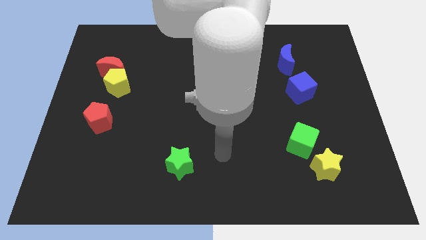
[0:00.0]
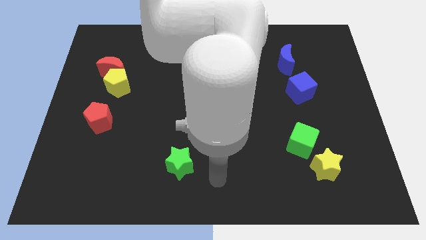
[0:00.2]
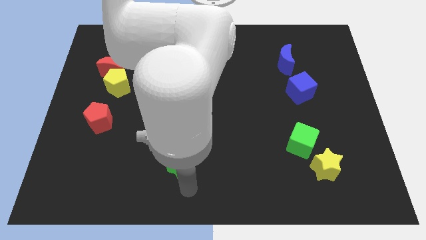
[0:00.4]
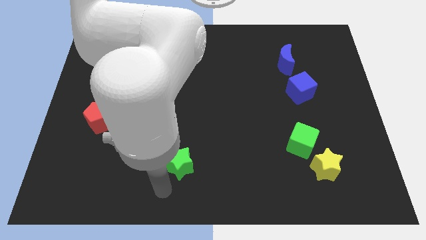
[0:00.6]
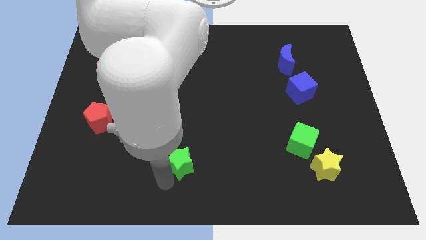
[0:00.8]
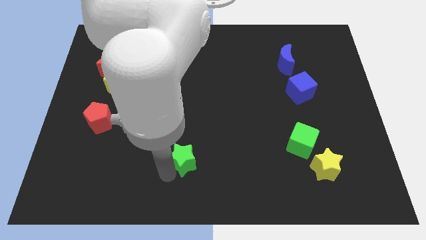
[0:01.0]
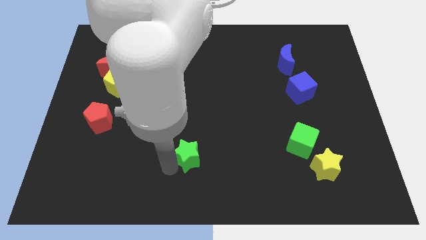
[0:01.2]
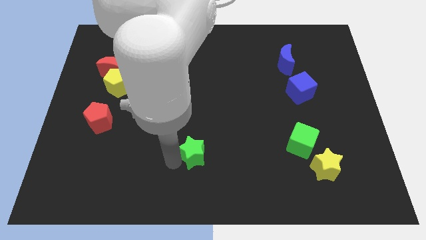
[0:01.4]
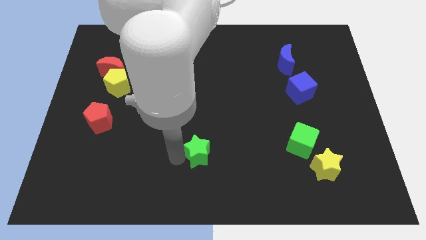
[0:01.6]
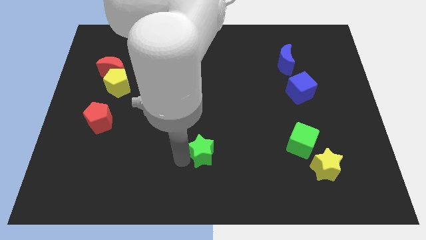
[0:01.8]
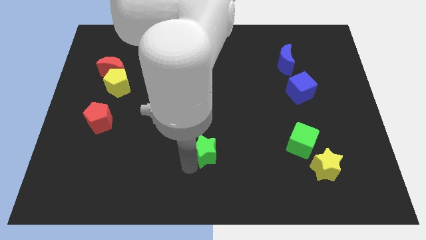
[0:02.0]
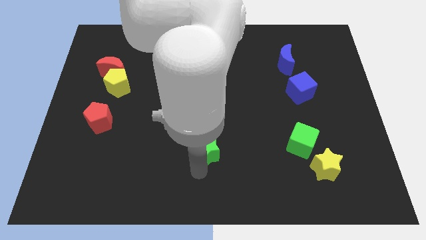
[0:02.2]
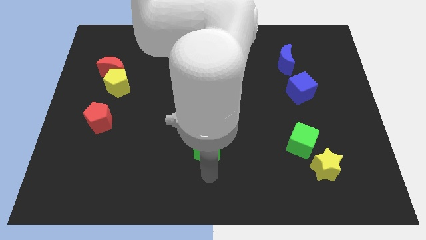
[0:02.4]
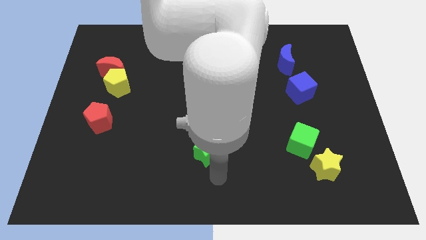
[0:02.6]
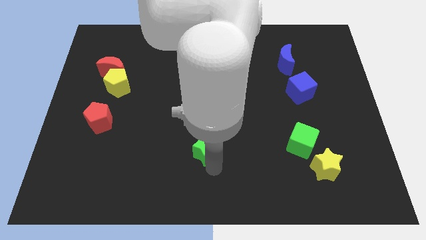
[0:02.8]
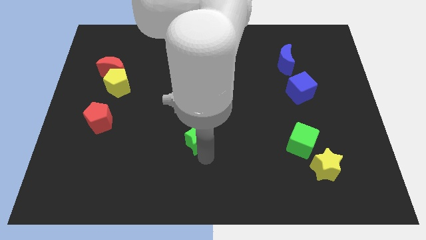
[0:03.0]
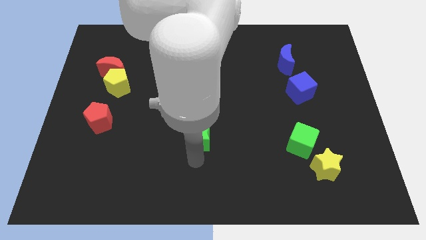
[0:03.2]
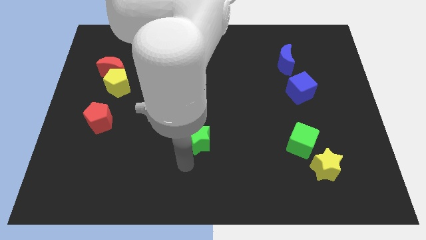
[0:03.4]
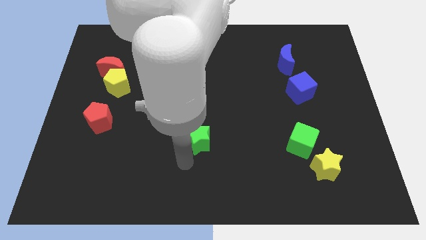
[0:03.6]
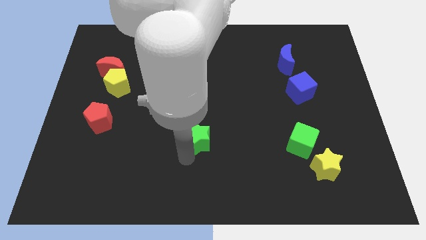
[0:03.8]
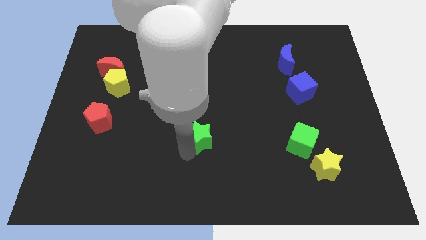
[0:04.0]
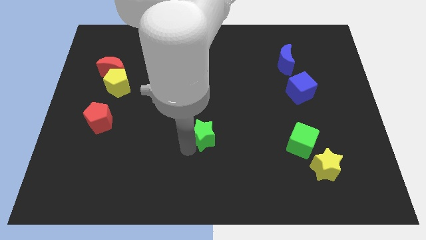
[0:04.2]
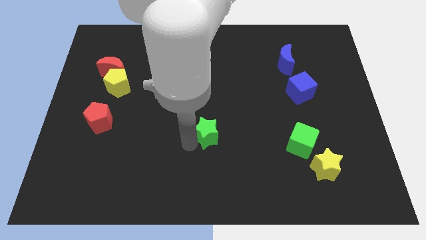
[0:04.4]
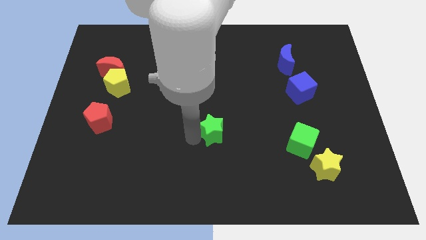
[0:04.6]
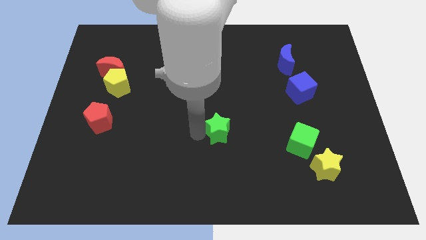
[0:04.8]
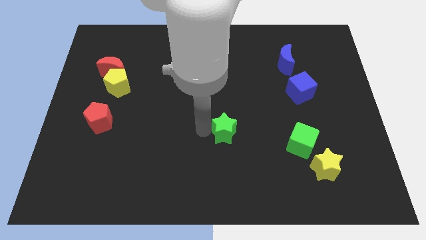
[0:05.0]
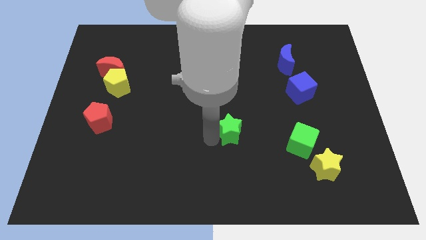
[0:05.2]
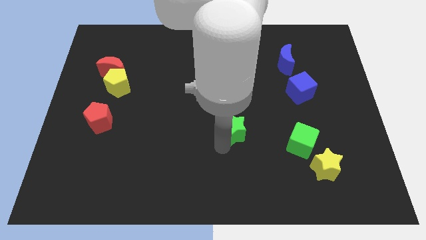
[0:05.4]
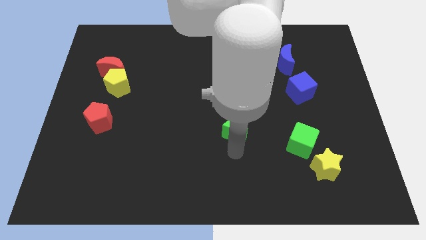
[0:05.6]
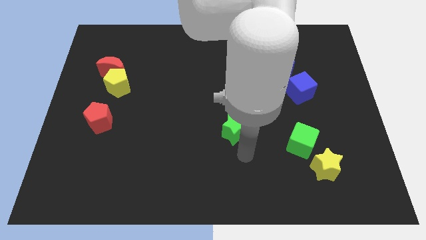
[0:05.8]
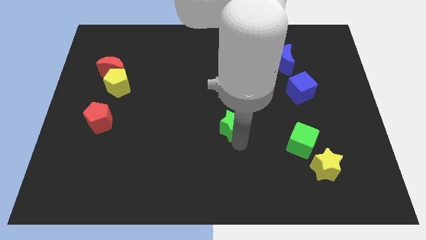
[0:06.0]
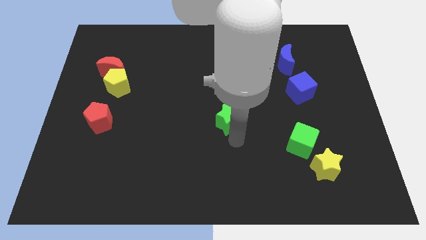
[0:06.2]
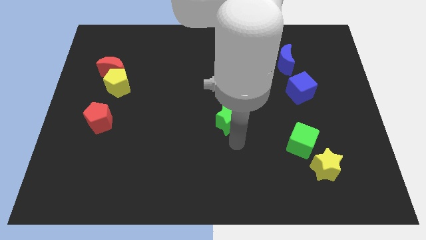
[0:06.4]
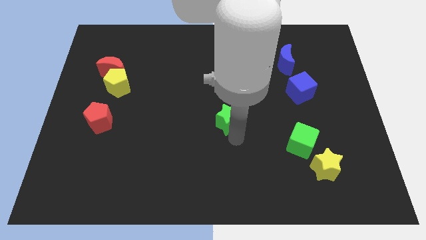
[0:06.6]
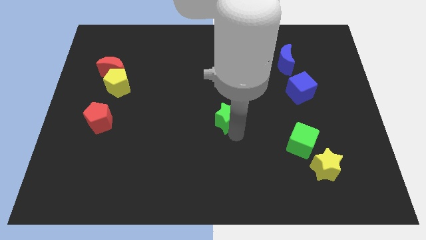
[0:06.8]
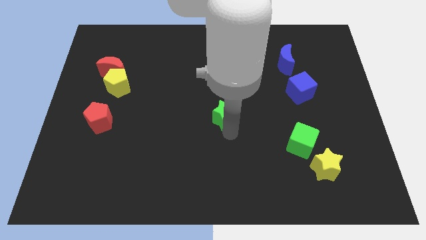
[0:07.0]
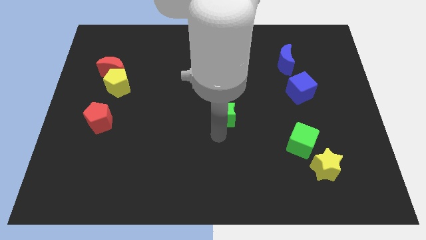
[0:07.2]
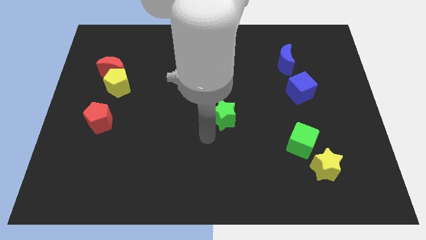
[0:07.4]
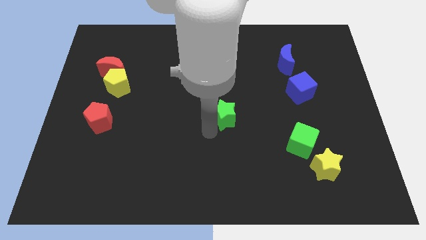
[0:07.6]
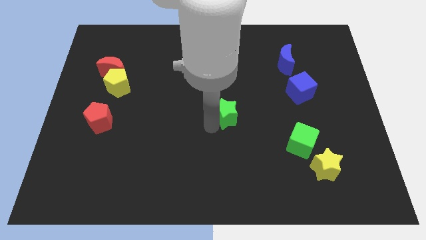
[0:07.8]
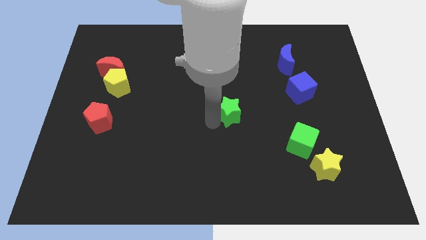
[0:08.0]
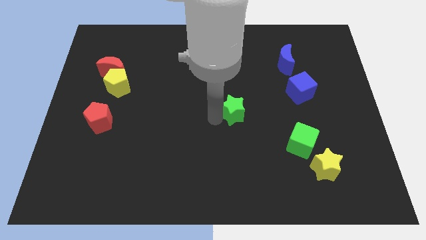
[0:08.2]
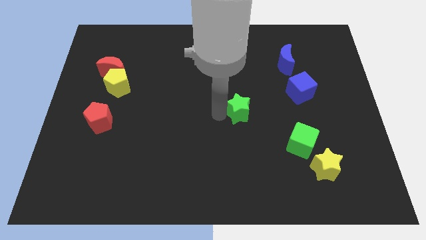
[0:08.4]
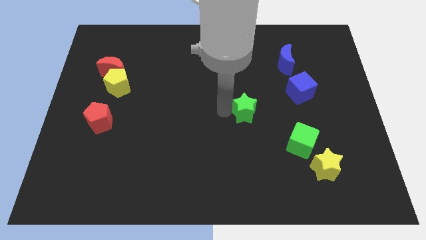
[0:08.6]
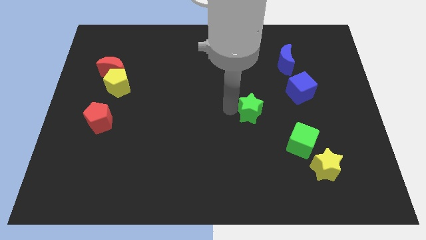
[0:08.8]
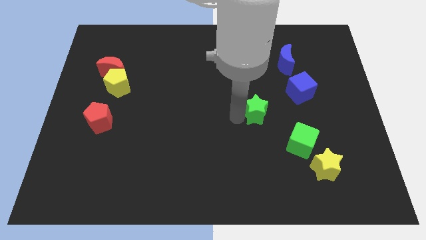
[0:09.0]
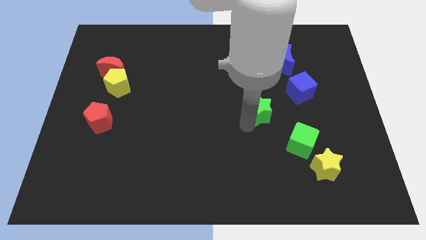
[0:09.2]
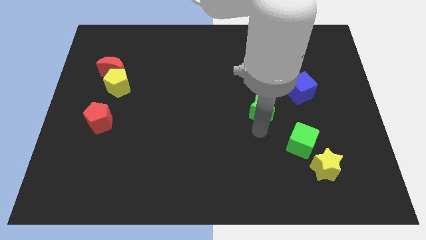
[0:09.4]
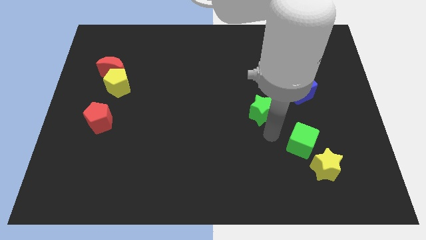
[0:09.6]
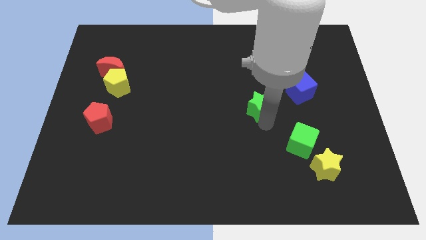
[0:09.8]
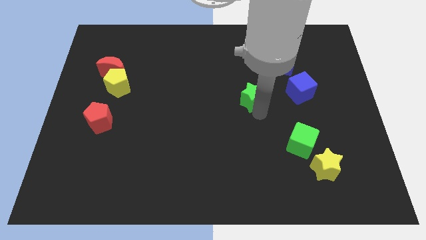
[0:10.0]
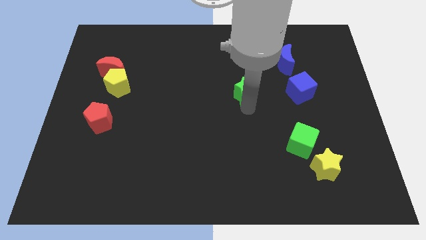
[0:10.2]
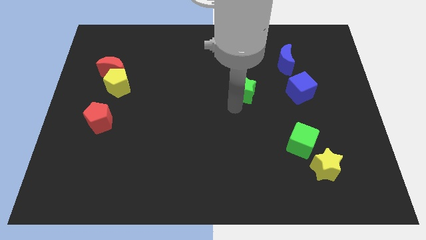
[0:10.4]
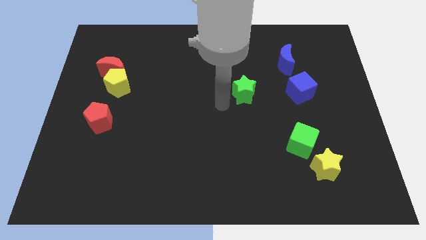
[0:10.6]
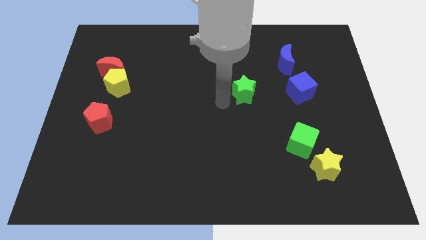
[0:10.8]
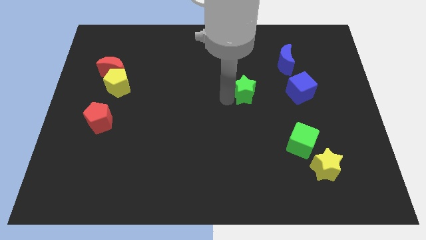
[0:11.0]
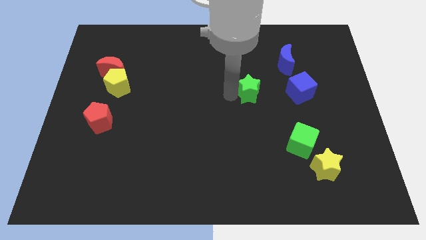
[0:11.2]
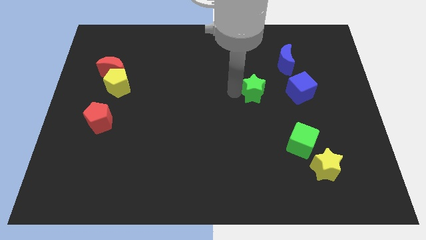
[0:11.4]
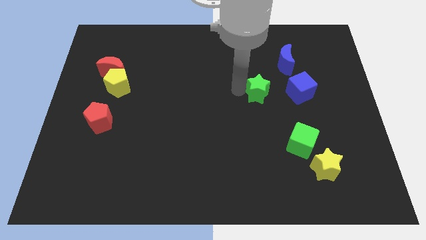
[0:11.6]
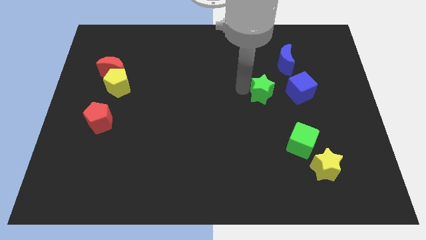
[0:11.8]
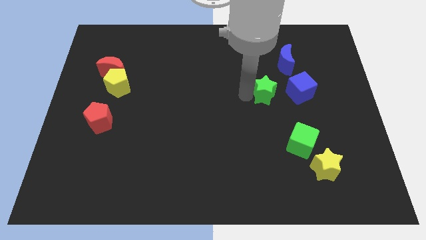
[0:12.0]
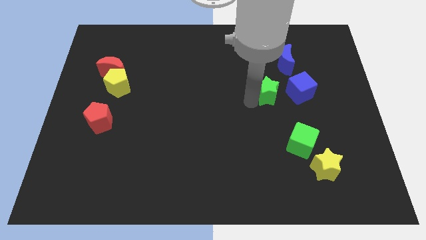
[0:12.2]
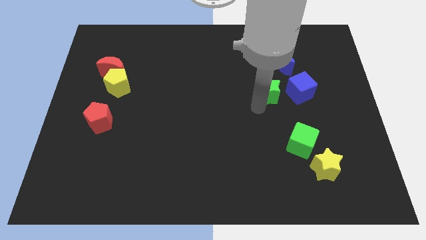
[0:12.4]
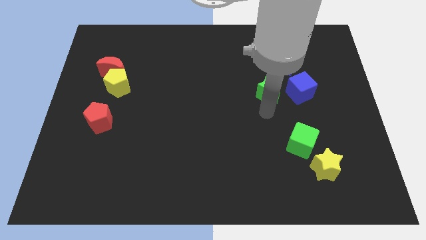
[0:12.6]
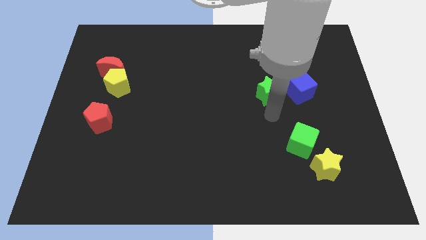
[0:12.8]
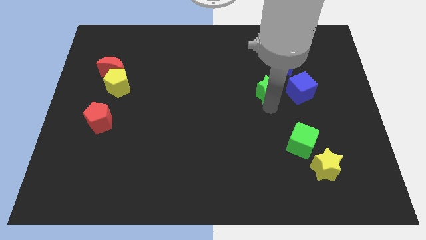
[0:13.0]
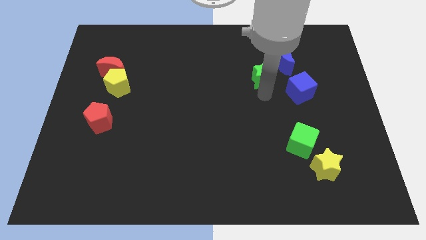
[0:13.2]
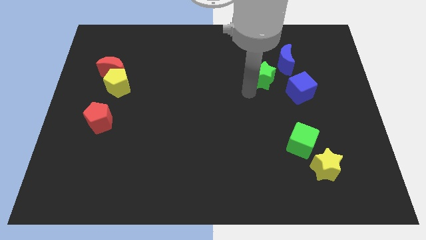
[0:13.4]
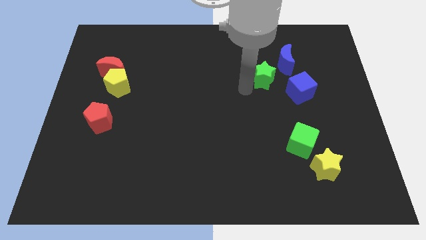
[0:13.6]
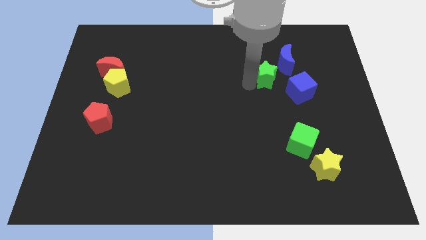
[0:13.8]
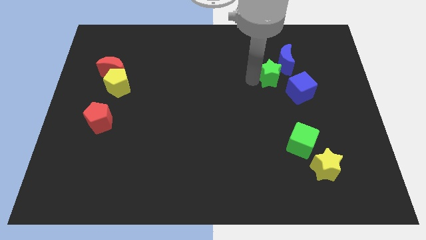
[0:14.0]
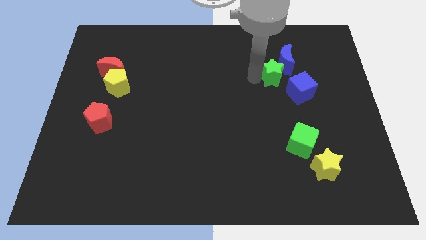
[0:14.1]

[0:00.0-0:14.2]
move the green star close to the blue moon

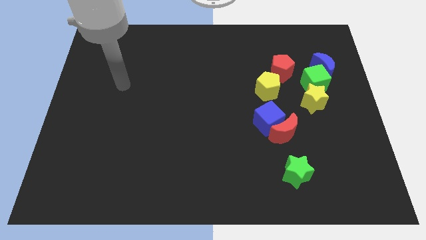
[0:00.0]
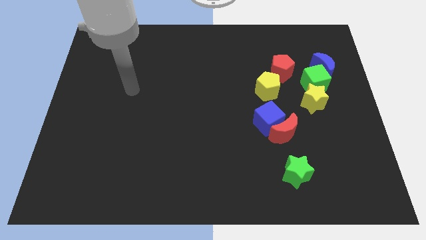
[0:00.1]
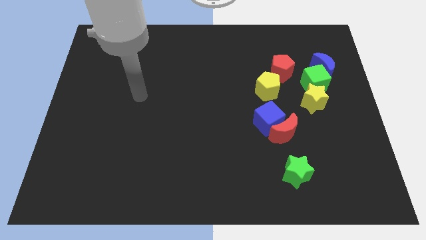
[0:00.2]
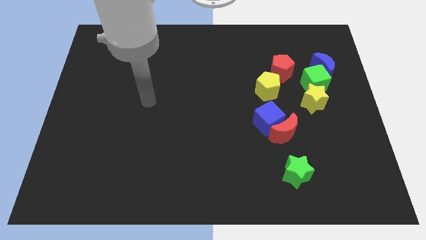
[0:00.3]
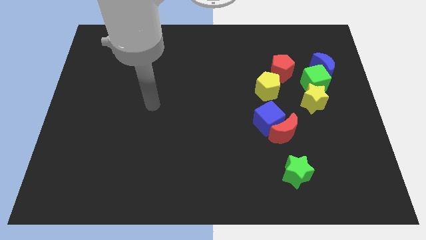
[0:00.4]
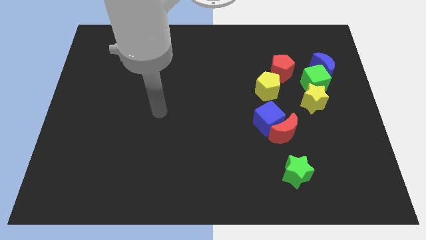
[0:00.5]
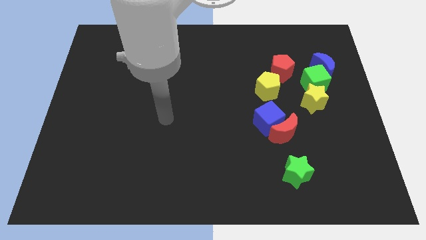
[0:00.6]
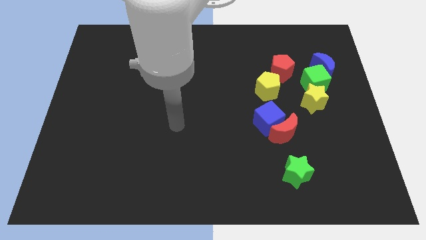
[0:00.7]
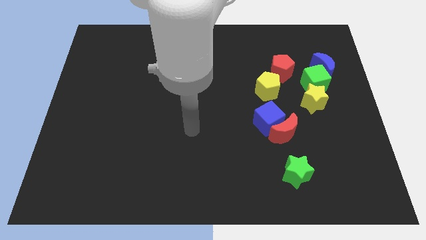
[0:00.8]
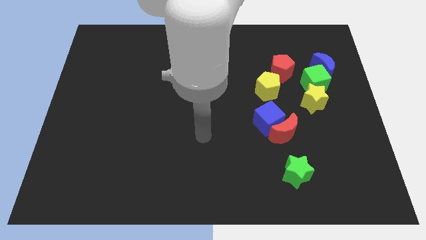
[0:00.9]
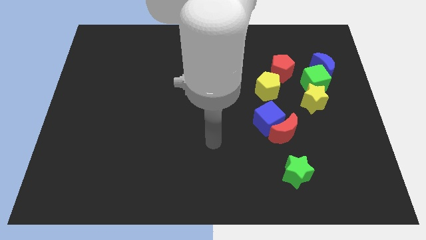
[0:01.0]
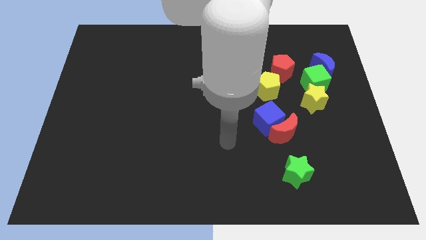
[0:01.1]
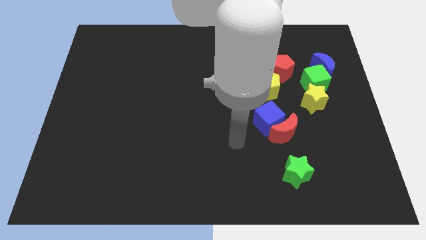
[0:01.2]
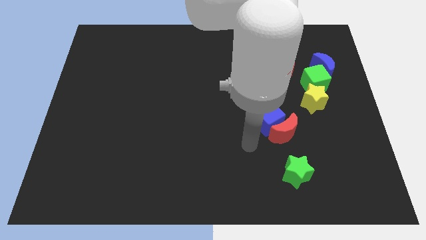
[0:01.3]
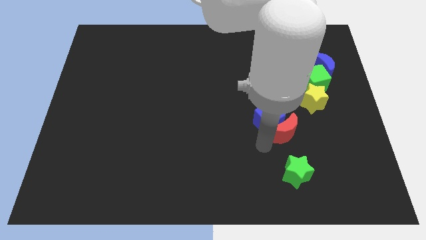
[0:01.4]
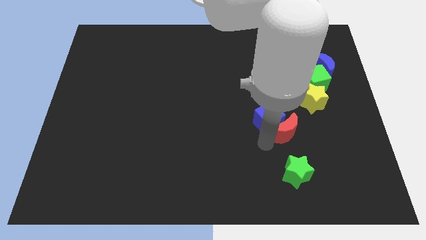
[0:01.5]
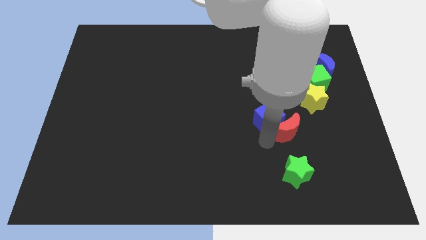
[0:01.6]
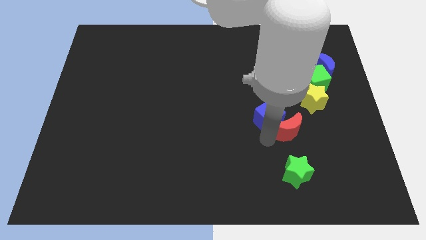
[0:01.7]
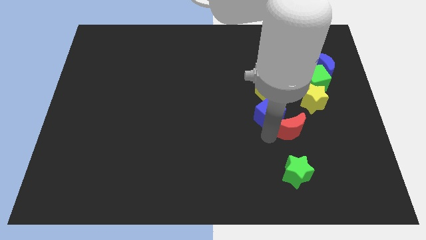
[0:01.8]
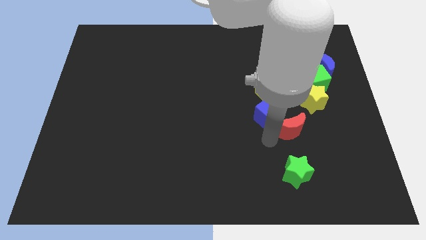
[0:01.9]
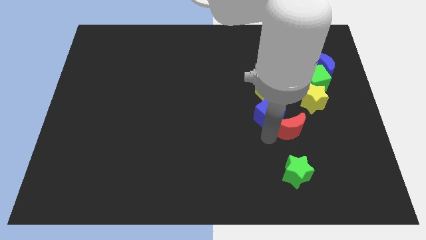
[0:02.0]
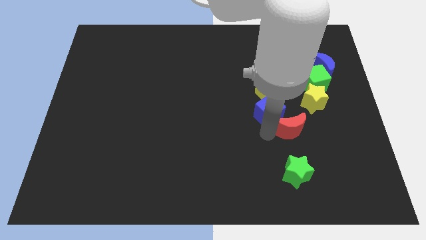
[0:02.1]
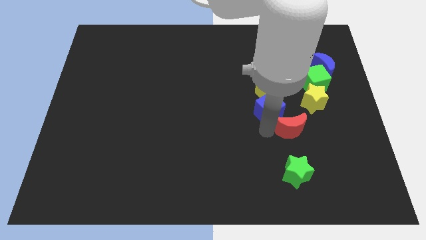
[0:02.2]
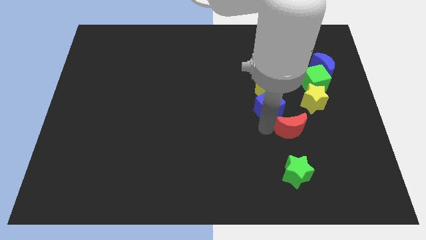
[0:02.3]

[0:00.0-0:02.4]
put the blue cube to the yellow pentagon
